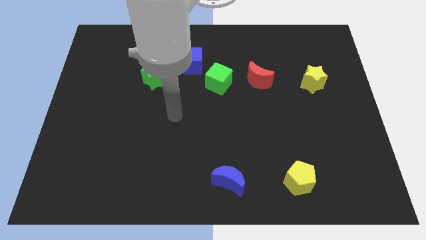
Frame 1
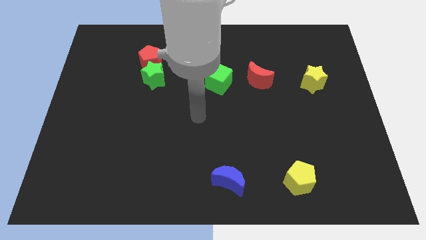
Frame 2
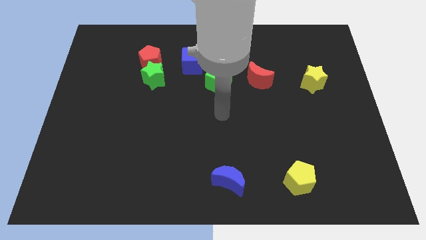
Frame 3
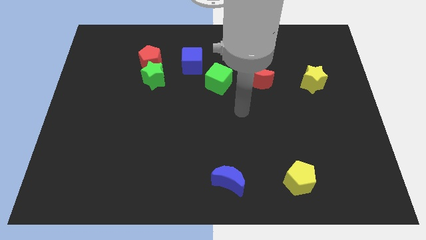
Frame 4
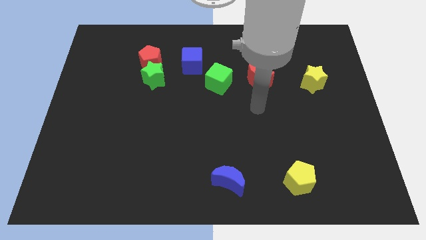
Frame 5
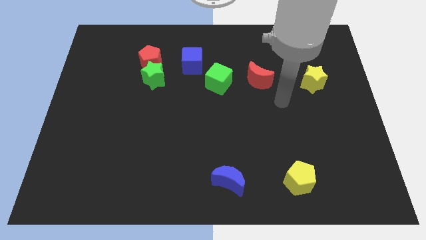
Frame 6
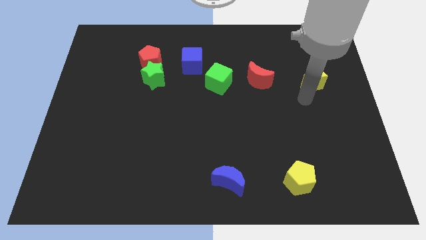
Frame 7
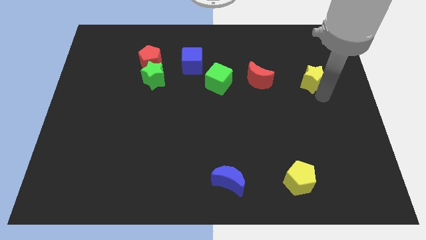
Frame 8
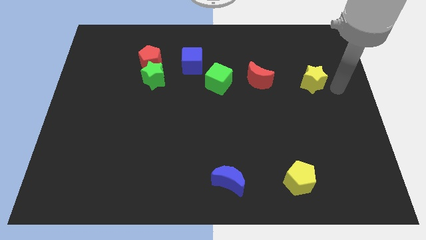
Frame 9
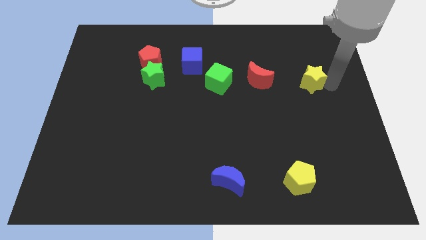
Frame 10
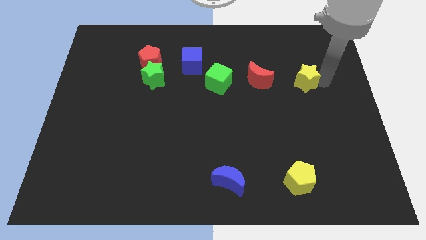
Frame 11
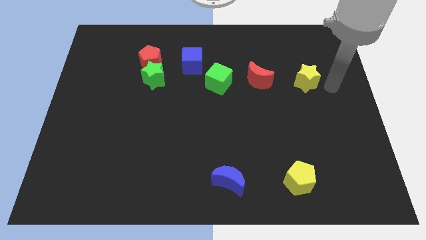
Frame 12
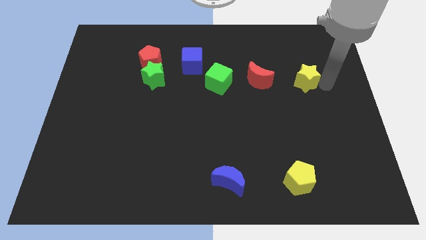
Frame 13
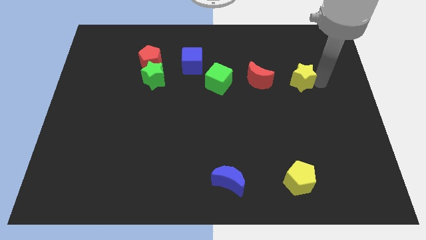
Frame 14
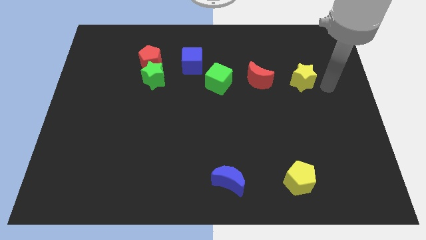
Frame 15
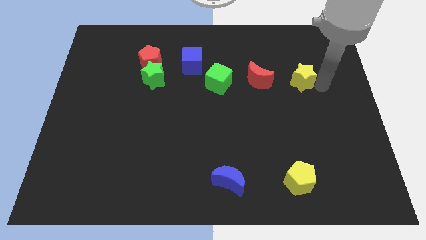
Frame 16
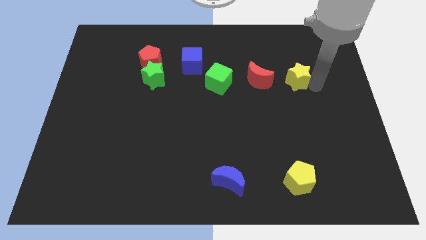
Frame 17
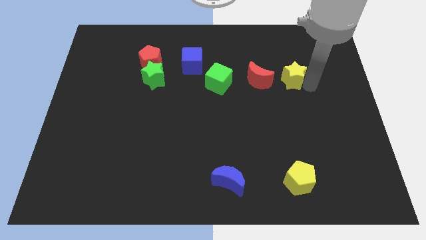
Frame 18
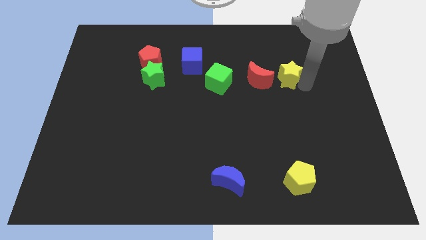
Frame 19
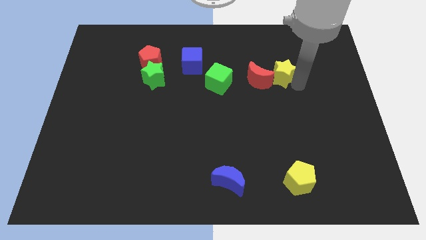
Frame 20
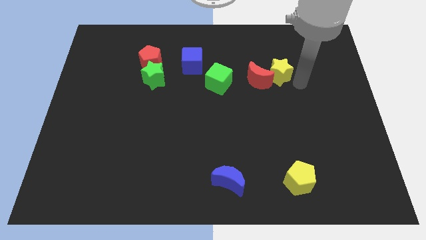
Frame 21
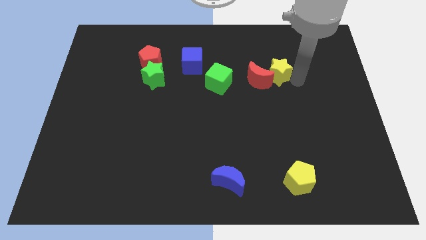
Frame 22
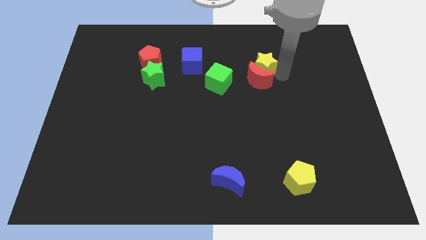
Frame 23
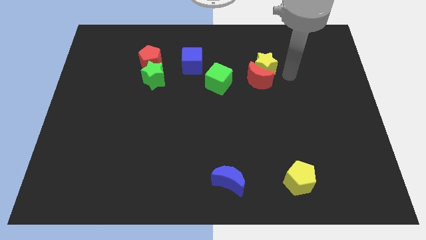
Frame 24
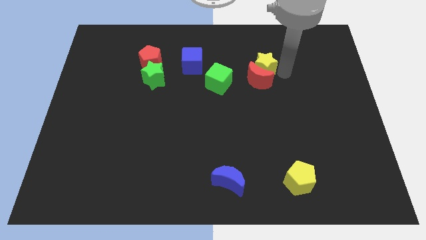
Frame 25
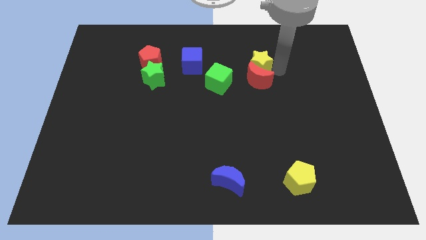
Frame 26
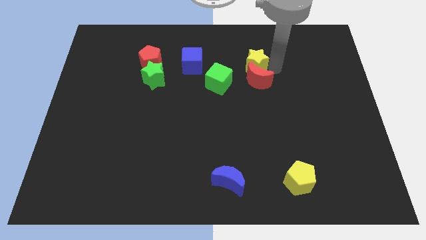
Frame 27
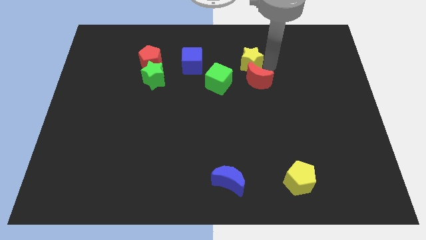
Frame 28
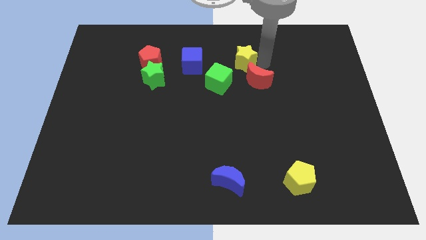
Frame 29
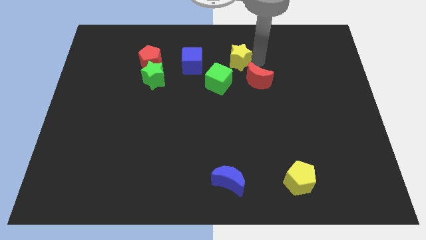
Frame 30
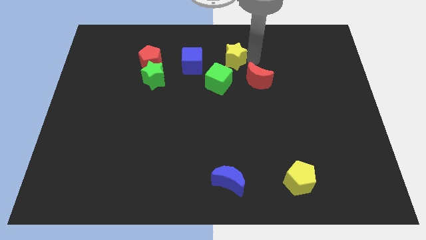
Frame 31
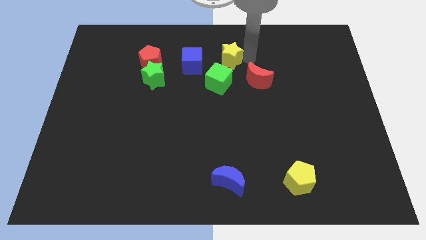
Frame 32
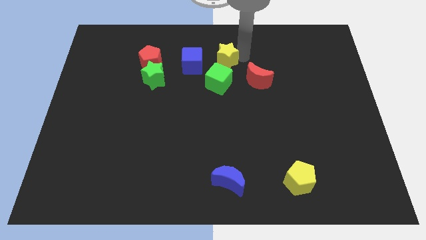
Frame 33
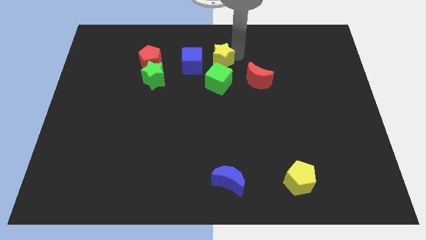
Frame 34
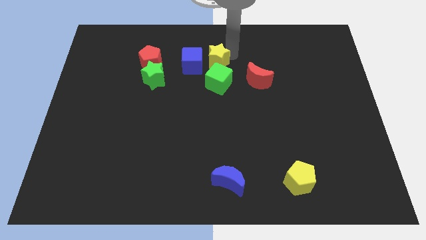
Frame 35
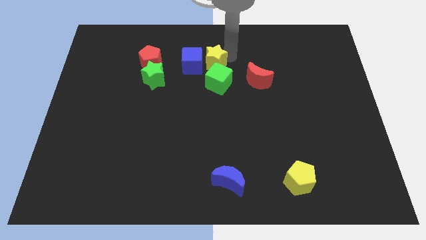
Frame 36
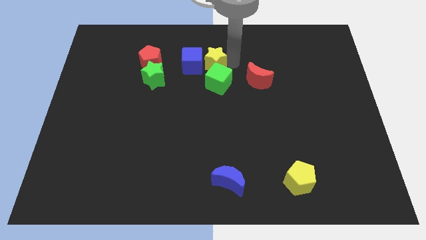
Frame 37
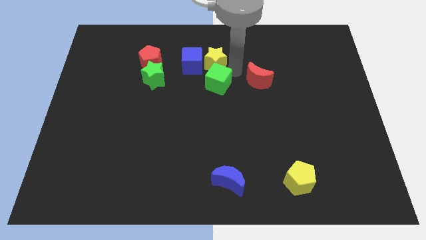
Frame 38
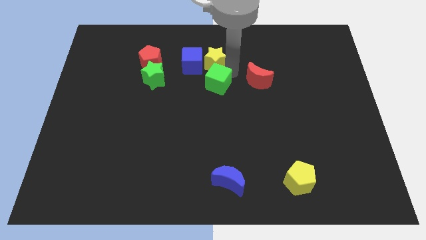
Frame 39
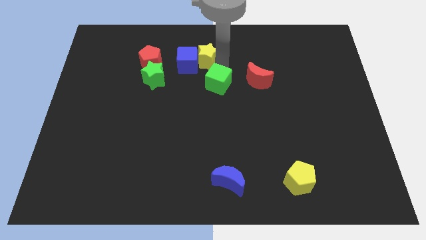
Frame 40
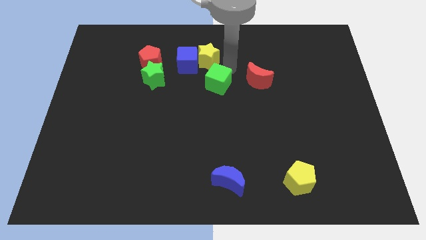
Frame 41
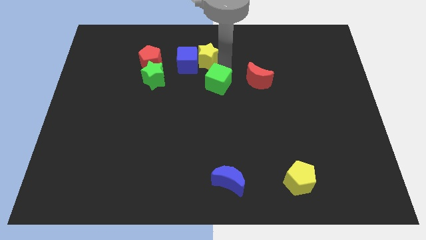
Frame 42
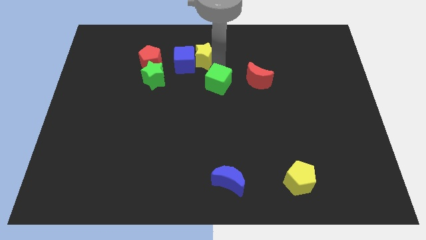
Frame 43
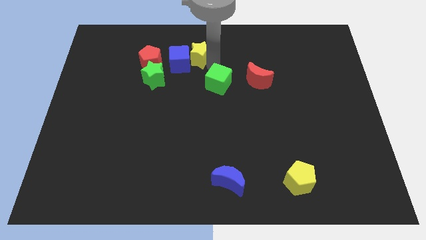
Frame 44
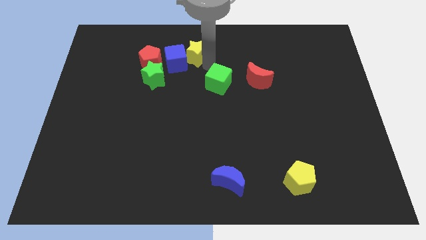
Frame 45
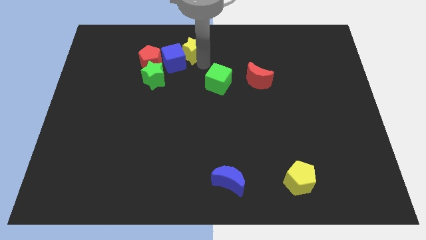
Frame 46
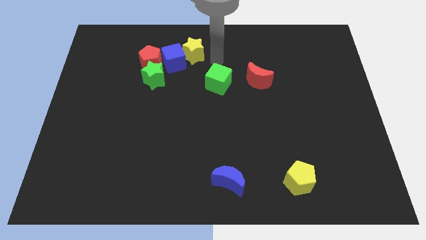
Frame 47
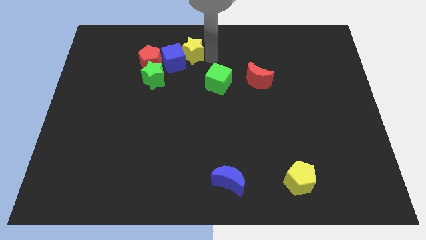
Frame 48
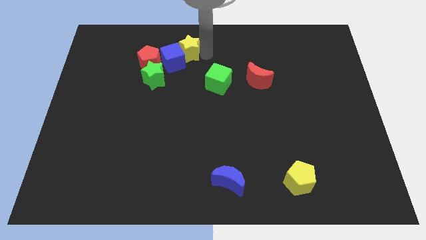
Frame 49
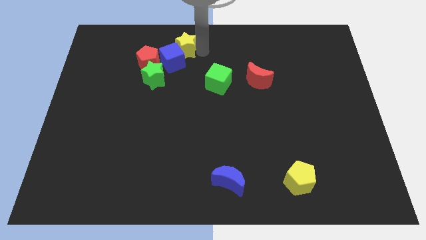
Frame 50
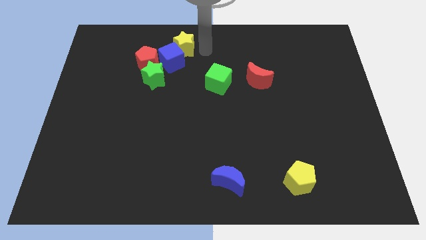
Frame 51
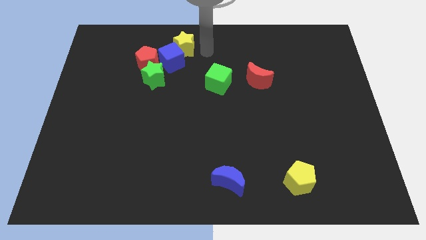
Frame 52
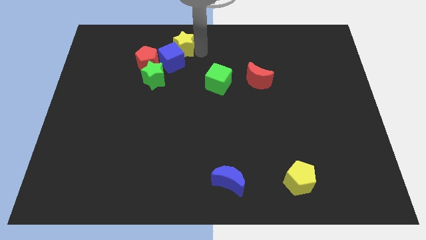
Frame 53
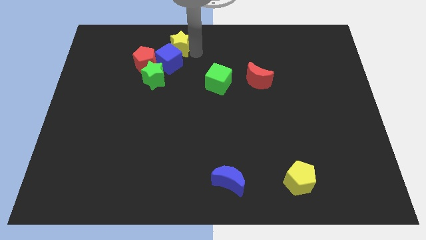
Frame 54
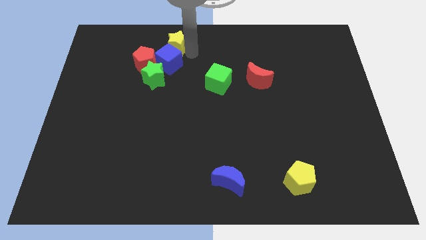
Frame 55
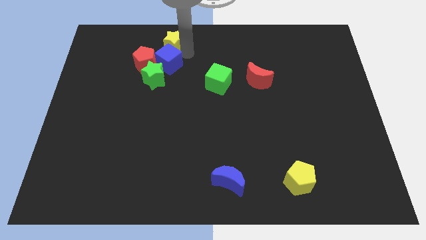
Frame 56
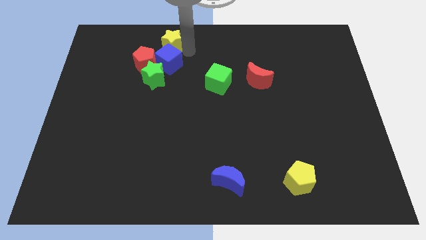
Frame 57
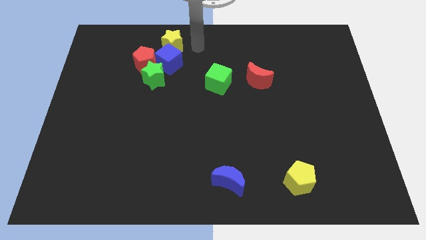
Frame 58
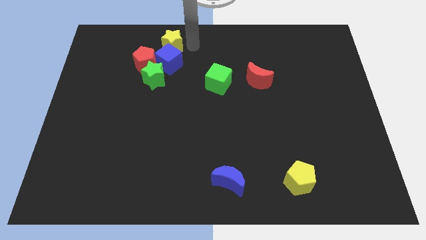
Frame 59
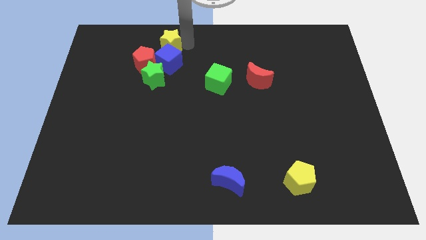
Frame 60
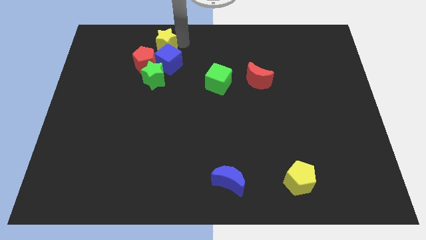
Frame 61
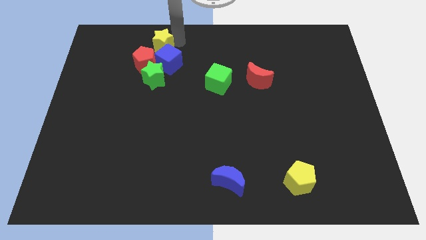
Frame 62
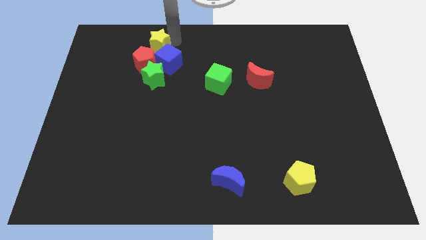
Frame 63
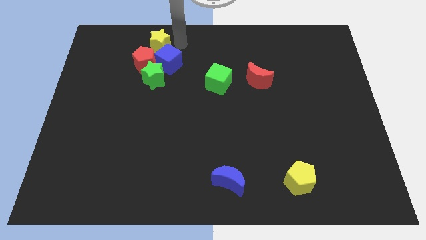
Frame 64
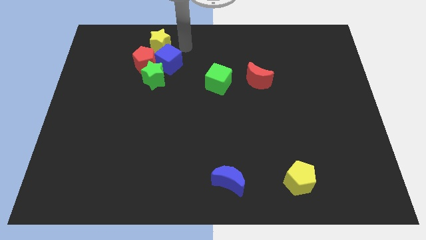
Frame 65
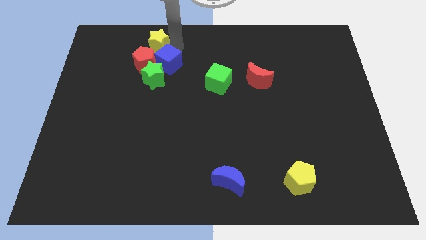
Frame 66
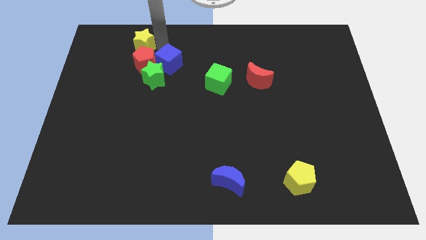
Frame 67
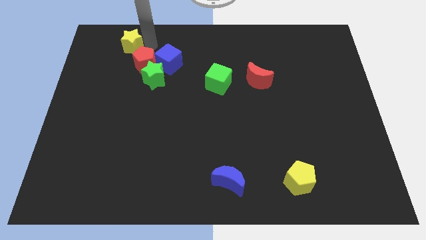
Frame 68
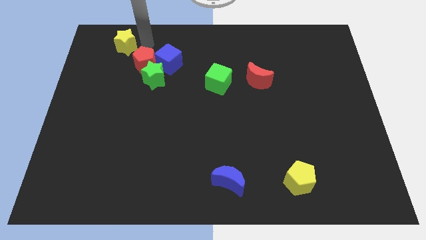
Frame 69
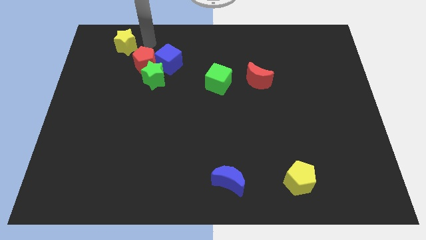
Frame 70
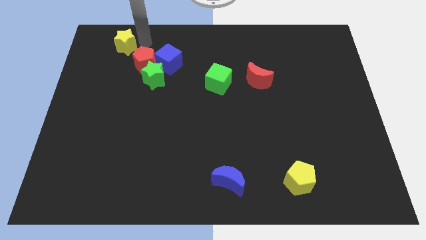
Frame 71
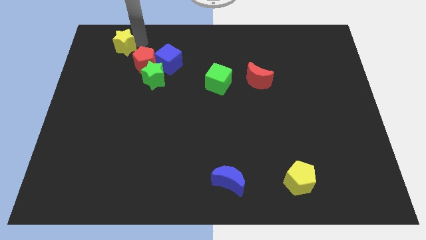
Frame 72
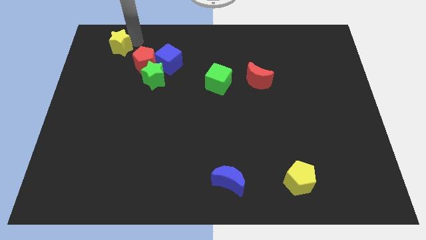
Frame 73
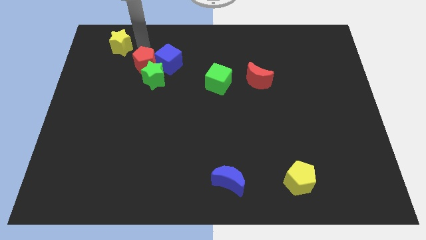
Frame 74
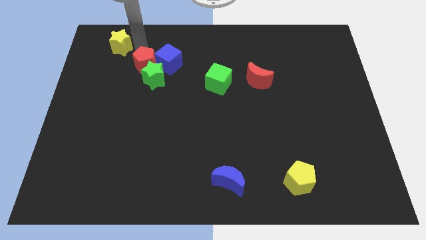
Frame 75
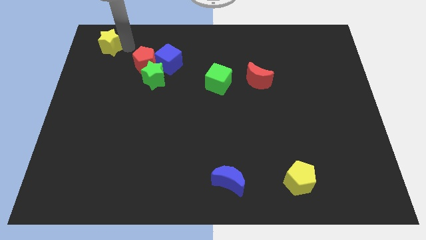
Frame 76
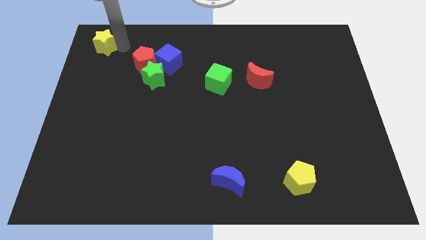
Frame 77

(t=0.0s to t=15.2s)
slide the yellow star to the top left of the board
